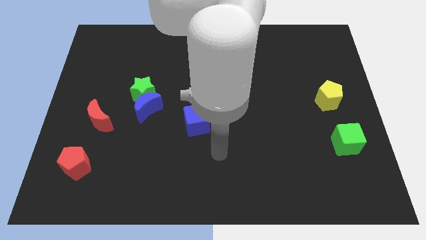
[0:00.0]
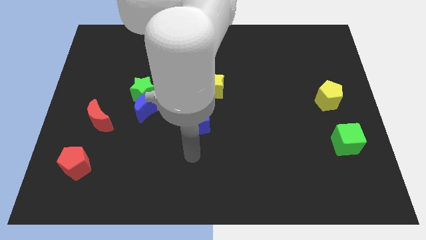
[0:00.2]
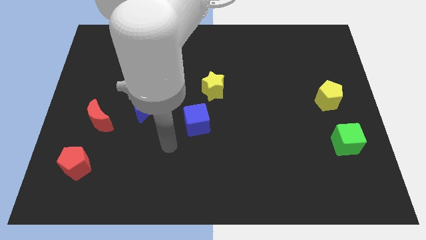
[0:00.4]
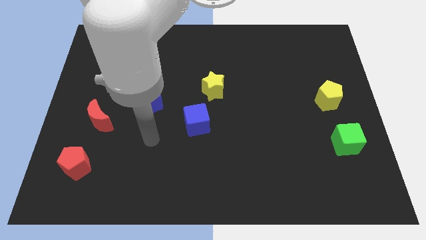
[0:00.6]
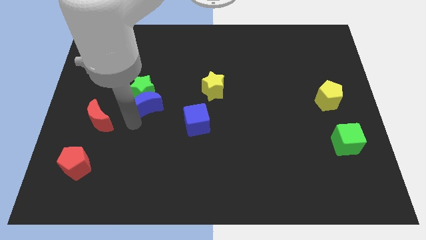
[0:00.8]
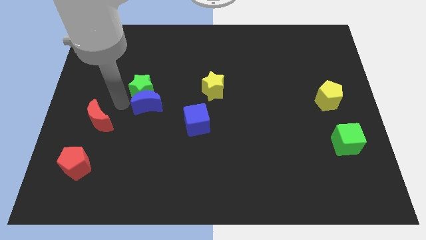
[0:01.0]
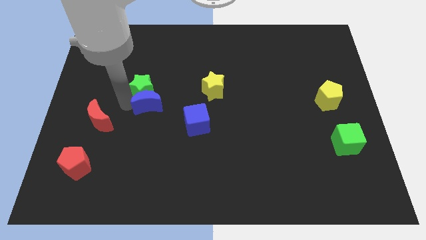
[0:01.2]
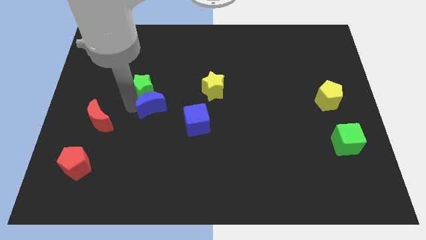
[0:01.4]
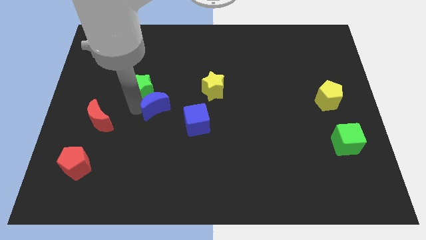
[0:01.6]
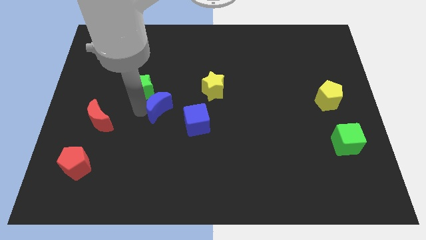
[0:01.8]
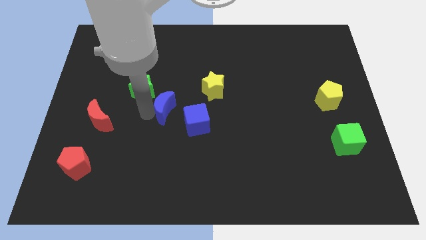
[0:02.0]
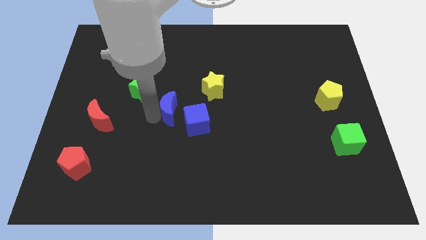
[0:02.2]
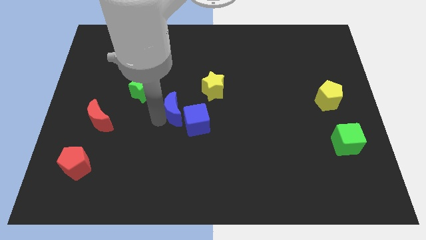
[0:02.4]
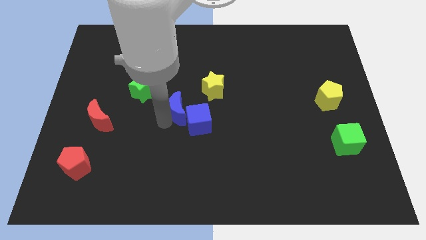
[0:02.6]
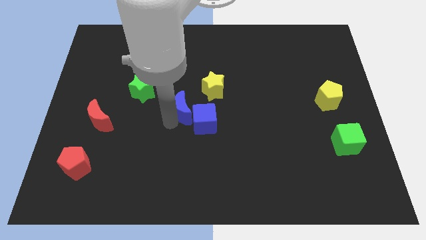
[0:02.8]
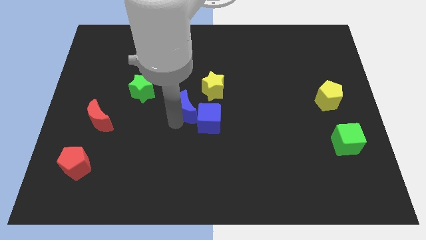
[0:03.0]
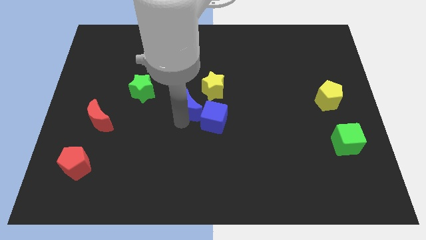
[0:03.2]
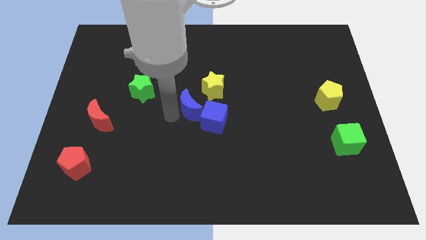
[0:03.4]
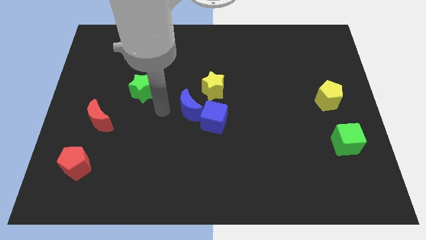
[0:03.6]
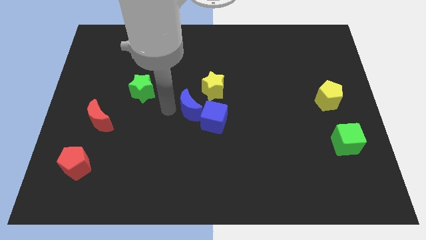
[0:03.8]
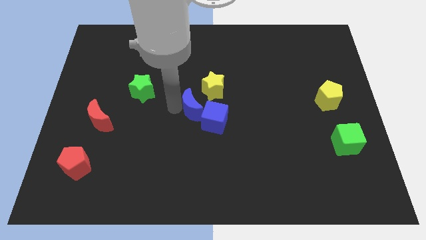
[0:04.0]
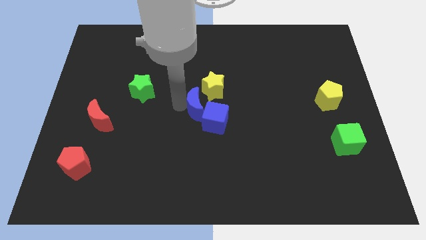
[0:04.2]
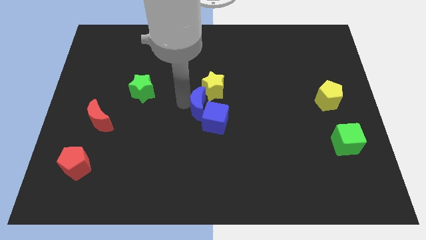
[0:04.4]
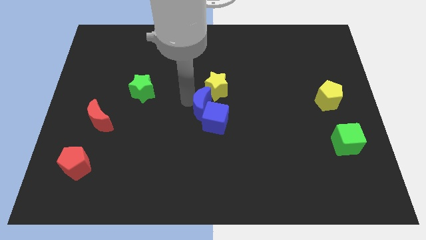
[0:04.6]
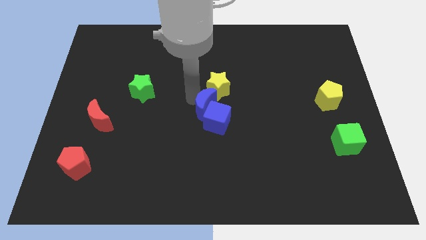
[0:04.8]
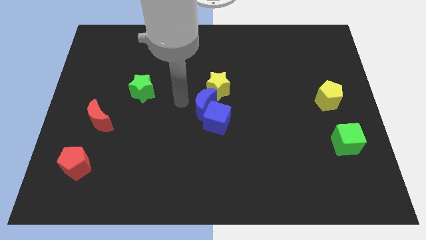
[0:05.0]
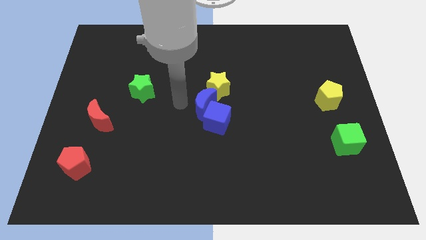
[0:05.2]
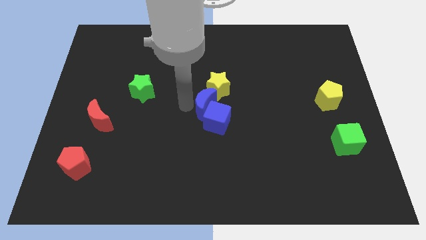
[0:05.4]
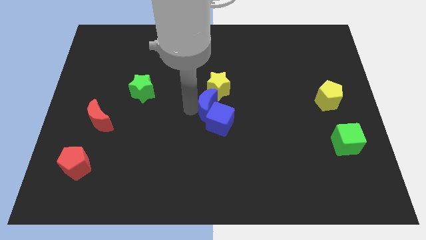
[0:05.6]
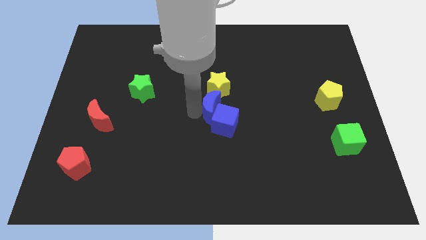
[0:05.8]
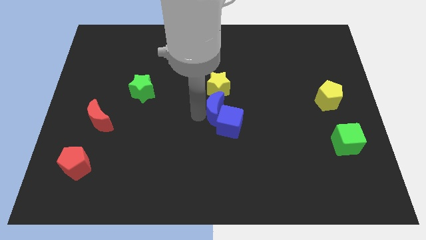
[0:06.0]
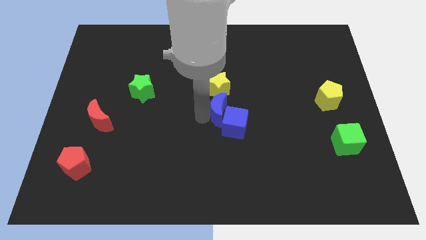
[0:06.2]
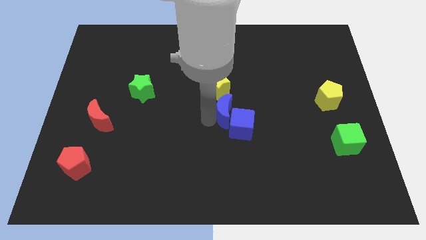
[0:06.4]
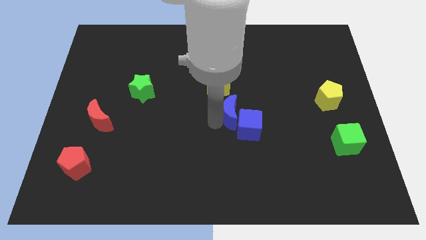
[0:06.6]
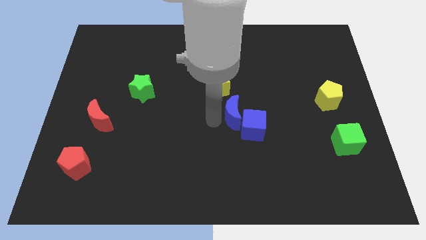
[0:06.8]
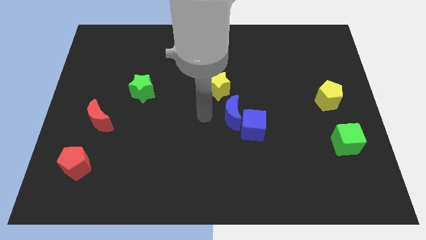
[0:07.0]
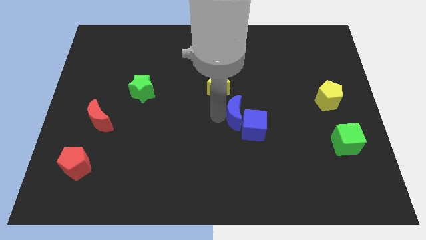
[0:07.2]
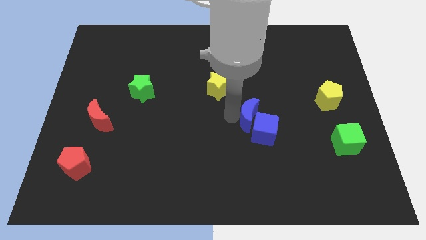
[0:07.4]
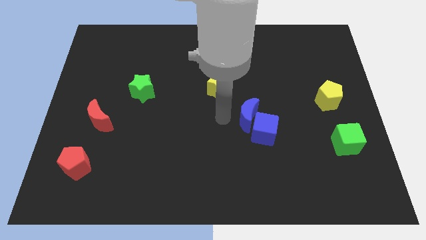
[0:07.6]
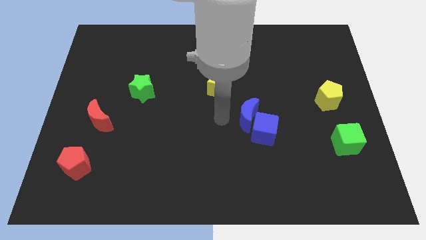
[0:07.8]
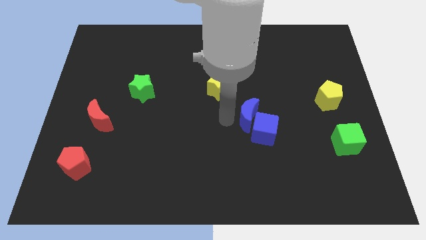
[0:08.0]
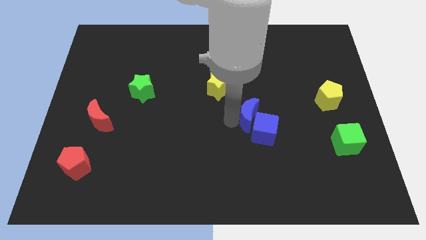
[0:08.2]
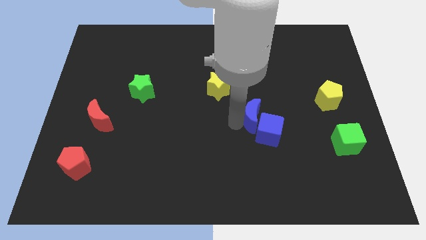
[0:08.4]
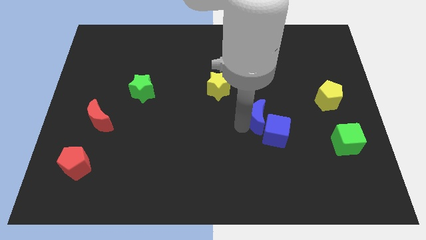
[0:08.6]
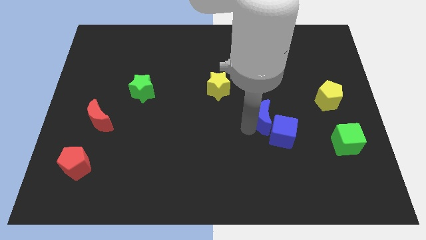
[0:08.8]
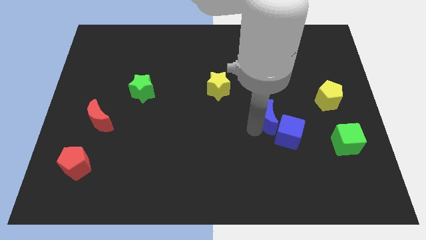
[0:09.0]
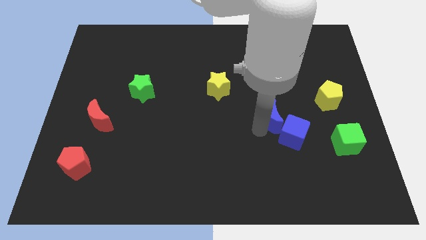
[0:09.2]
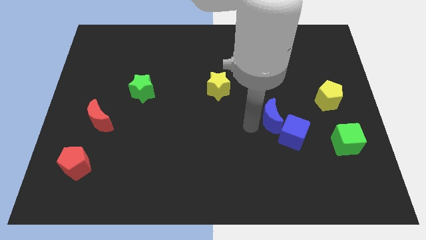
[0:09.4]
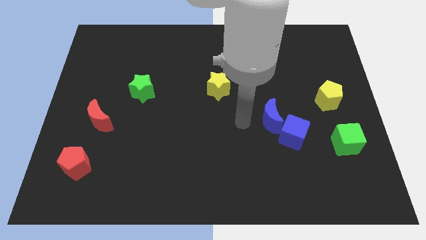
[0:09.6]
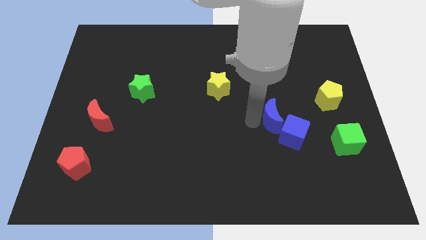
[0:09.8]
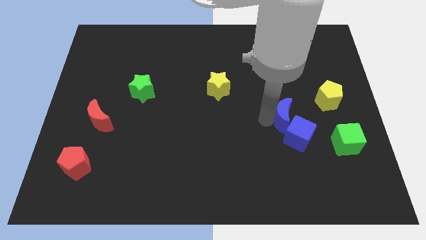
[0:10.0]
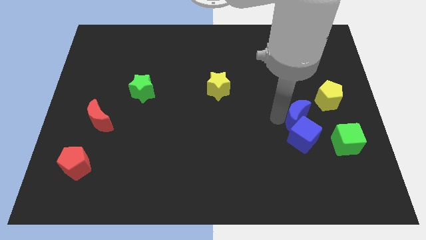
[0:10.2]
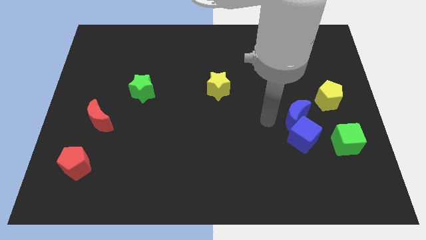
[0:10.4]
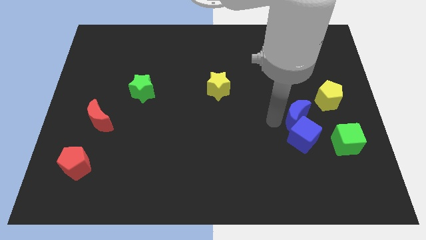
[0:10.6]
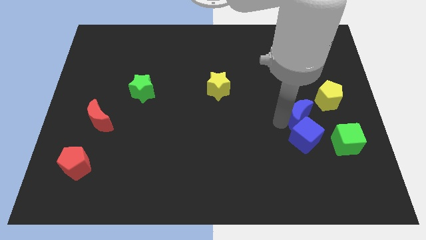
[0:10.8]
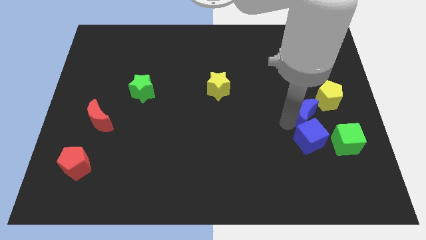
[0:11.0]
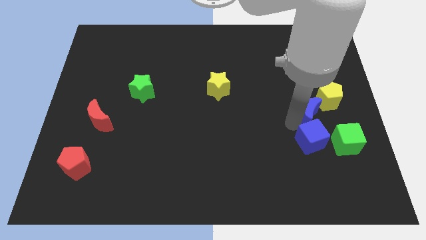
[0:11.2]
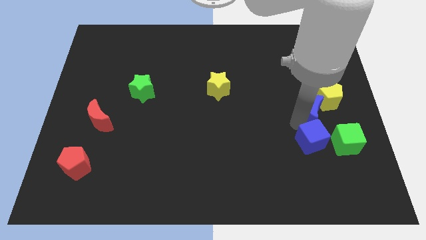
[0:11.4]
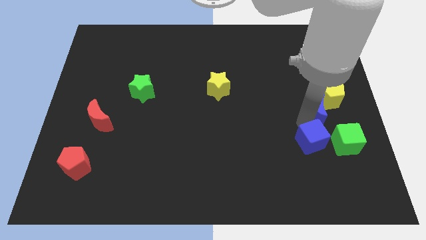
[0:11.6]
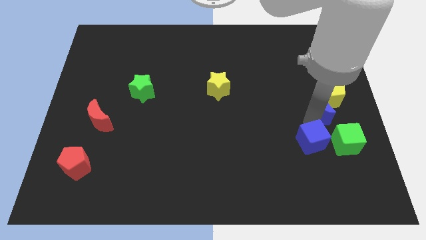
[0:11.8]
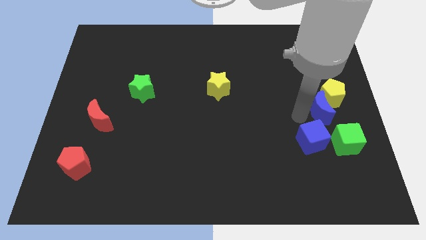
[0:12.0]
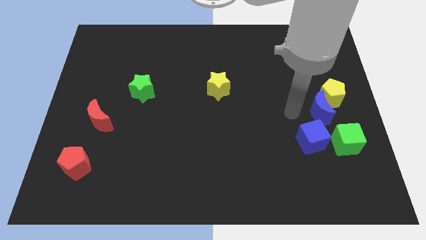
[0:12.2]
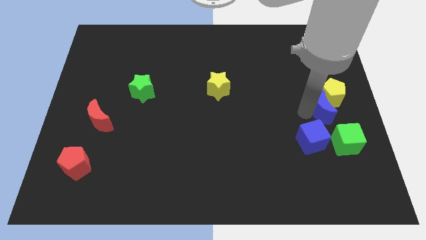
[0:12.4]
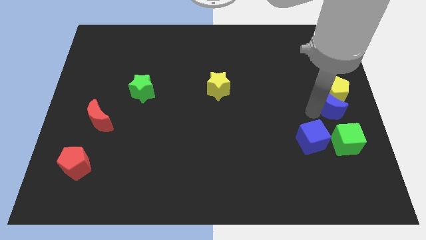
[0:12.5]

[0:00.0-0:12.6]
move the blue moon to the center right
